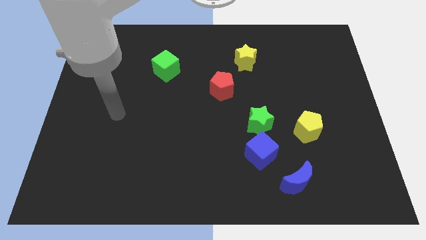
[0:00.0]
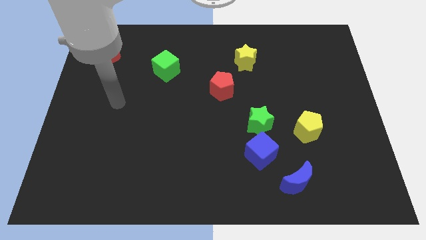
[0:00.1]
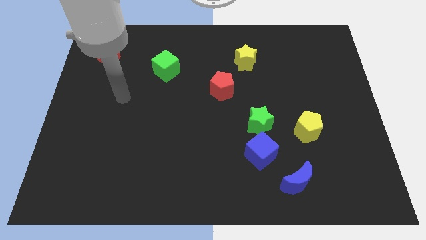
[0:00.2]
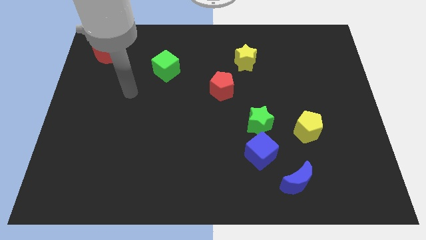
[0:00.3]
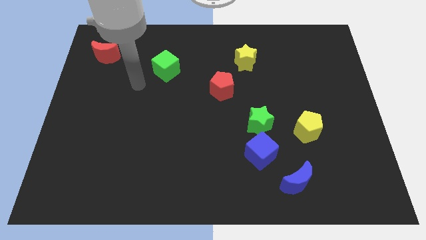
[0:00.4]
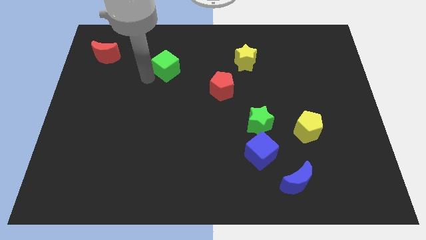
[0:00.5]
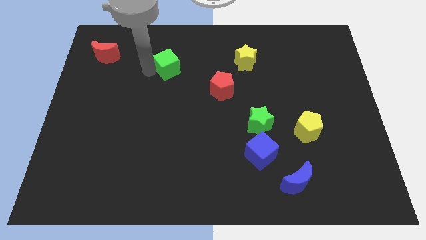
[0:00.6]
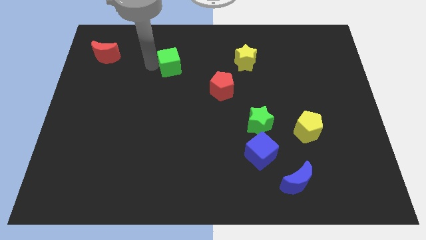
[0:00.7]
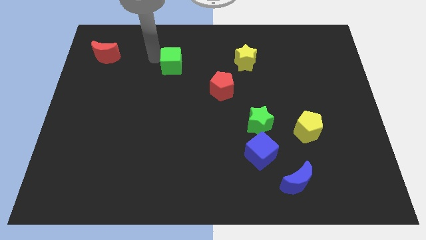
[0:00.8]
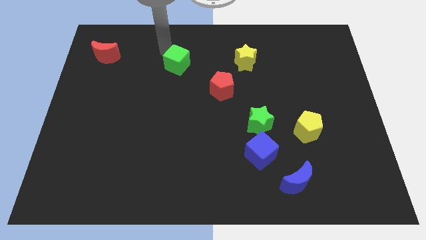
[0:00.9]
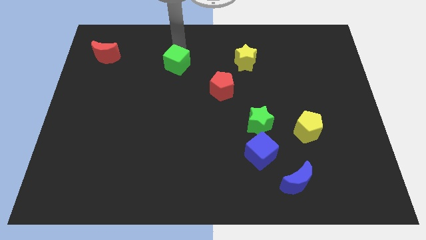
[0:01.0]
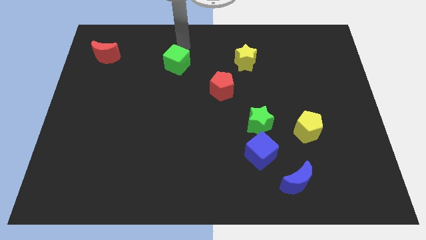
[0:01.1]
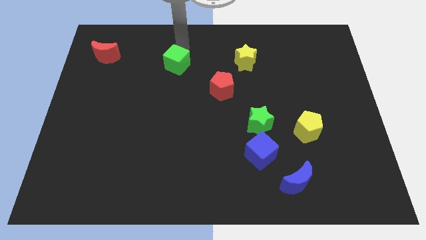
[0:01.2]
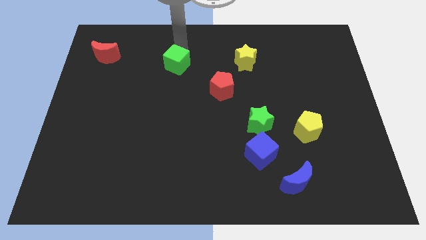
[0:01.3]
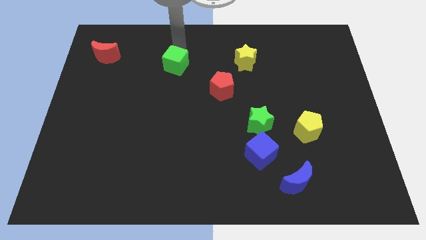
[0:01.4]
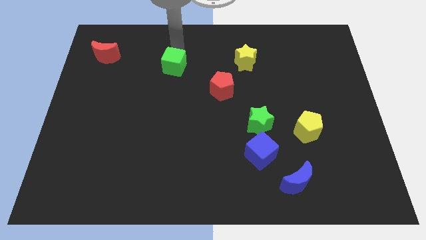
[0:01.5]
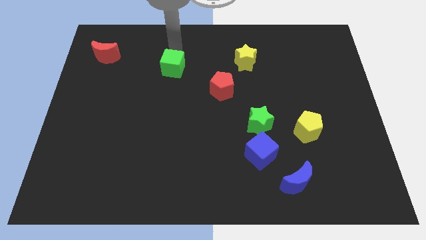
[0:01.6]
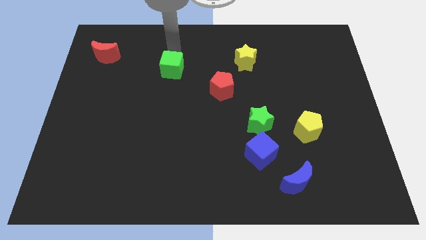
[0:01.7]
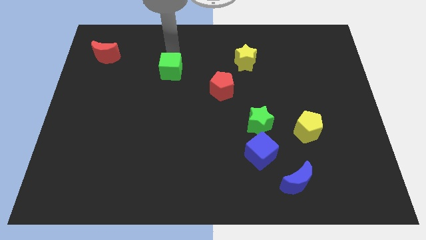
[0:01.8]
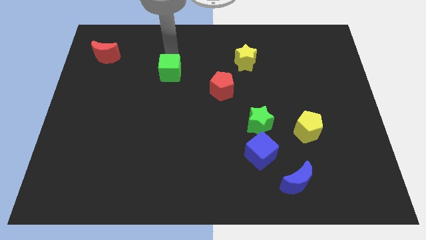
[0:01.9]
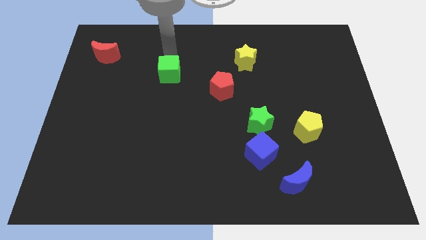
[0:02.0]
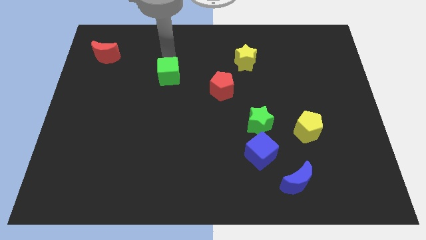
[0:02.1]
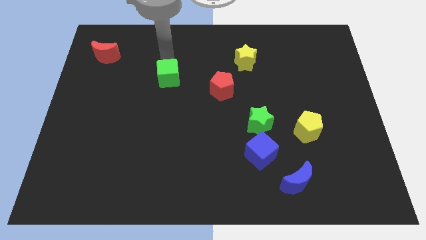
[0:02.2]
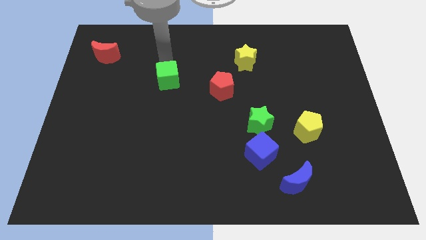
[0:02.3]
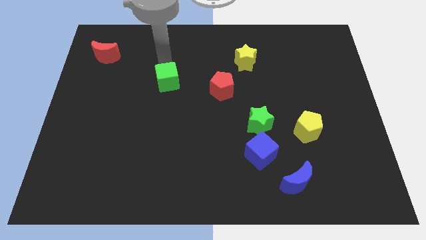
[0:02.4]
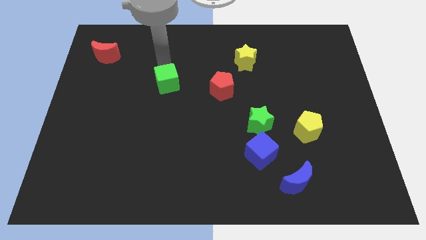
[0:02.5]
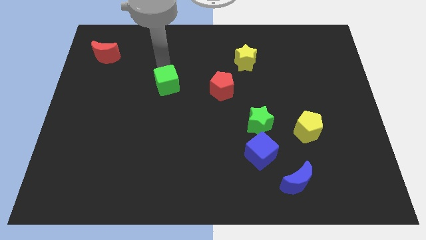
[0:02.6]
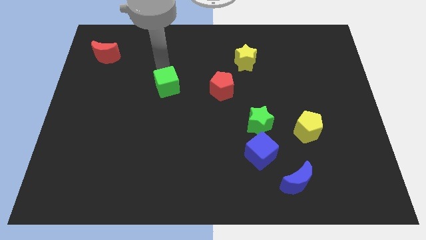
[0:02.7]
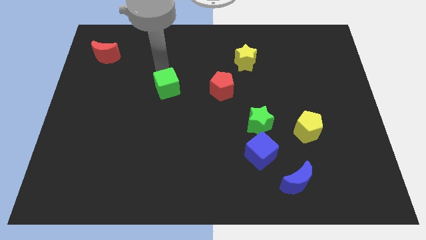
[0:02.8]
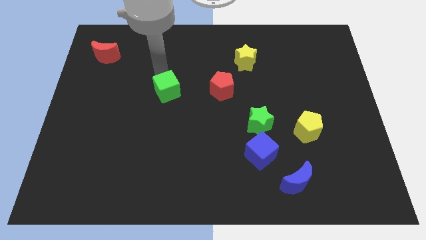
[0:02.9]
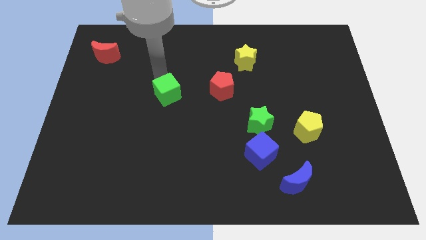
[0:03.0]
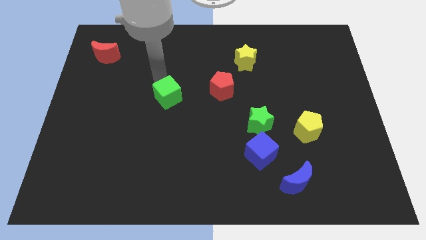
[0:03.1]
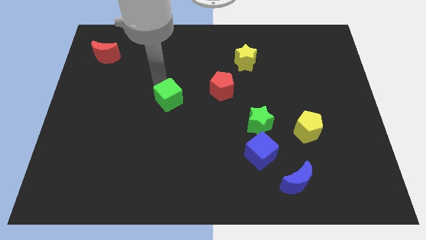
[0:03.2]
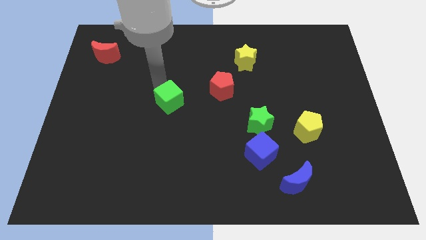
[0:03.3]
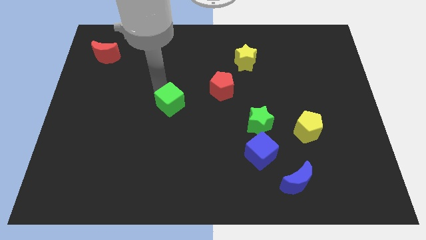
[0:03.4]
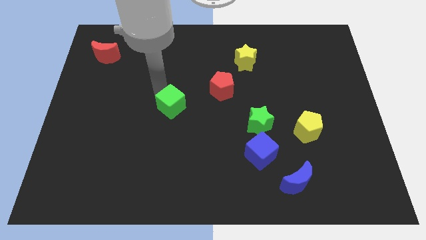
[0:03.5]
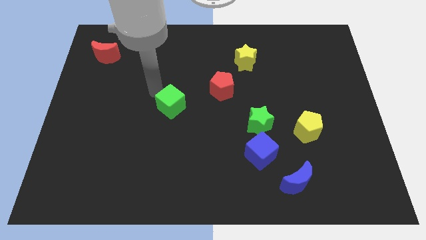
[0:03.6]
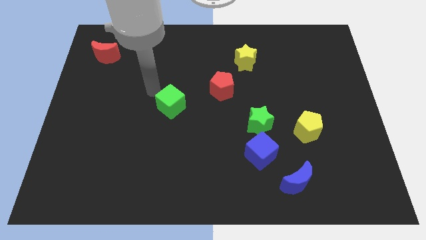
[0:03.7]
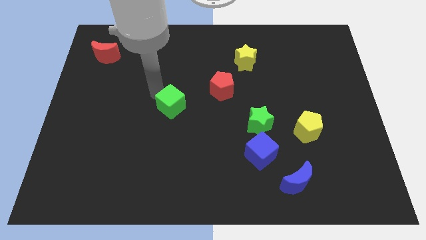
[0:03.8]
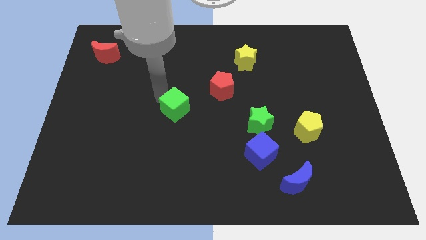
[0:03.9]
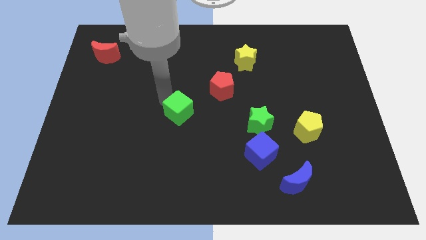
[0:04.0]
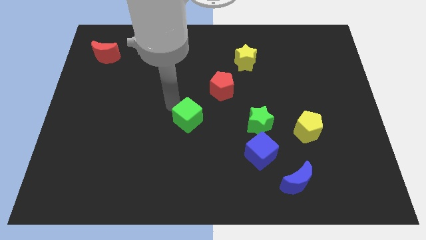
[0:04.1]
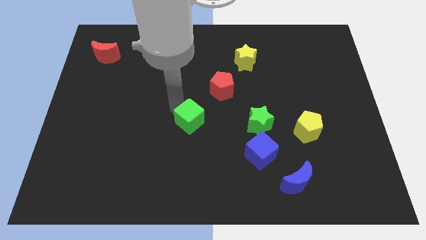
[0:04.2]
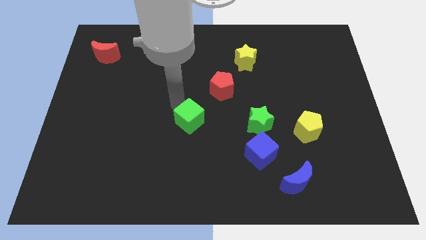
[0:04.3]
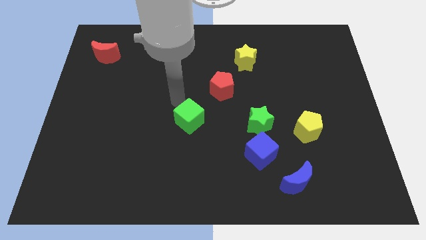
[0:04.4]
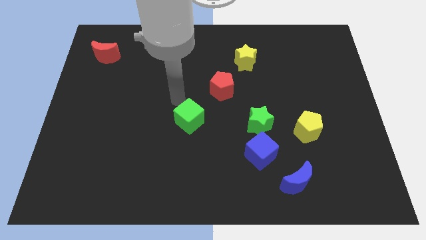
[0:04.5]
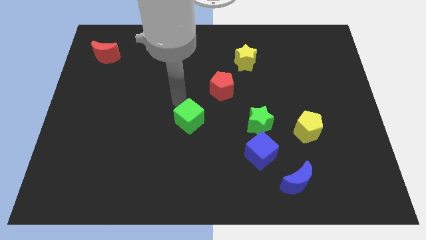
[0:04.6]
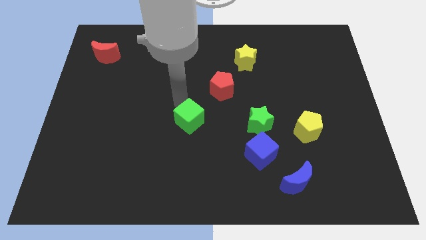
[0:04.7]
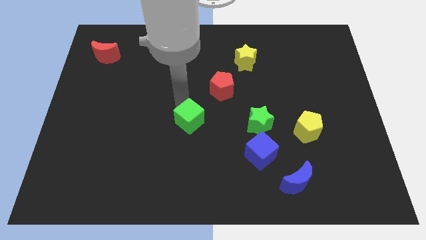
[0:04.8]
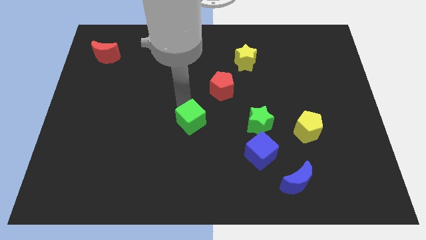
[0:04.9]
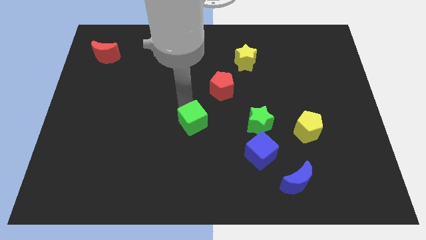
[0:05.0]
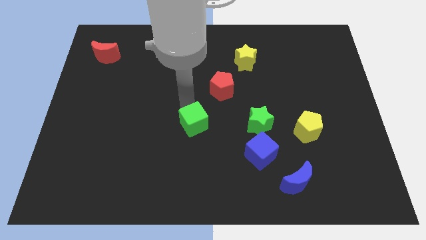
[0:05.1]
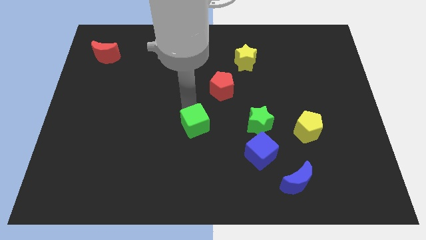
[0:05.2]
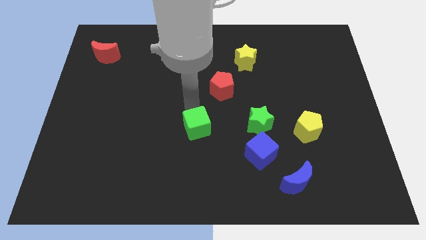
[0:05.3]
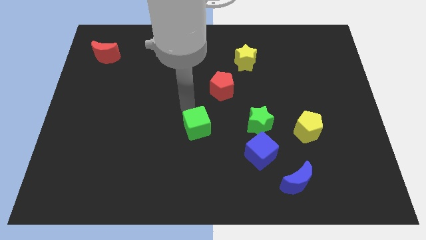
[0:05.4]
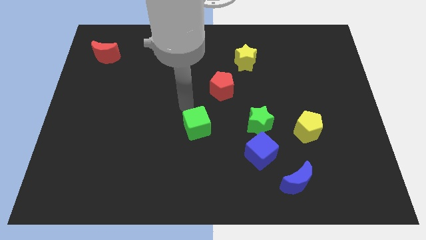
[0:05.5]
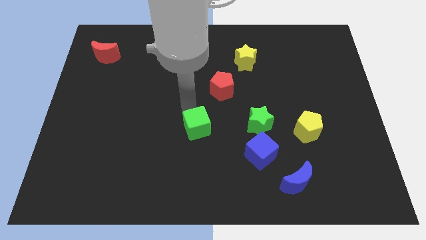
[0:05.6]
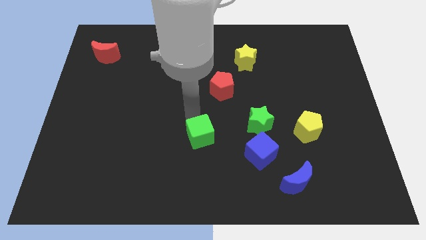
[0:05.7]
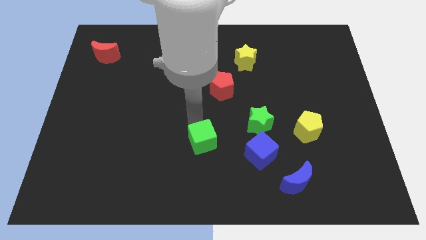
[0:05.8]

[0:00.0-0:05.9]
move the green cube left of the blue cube

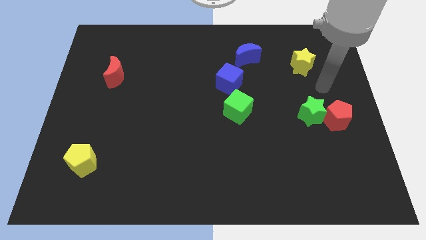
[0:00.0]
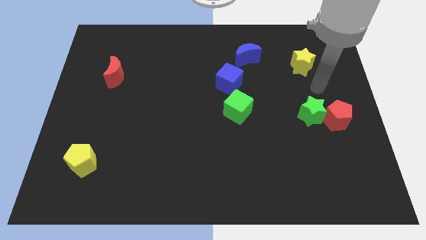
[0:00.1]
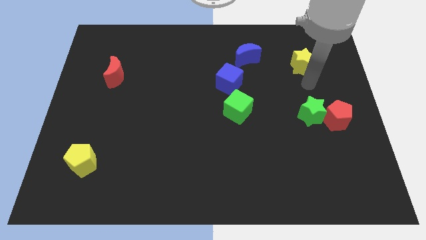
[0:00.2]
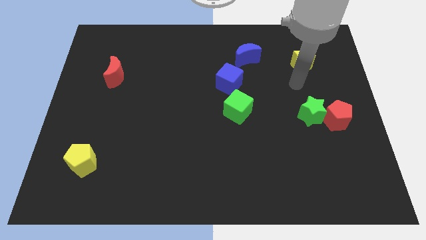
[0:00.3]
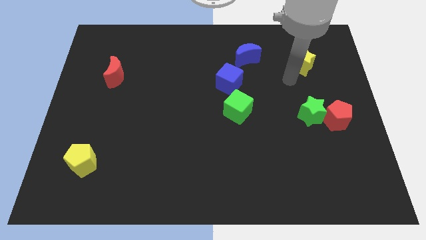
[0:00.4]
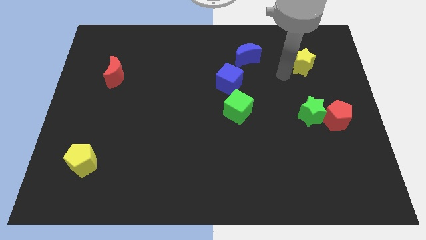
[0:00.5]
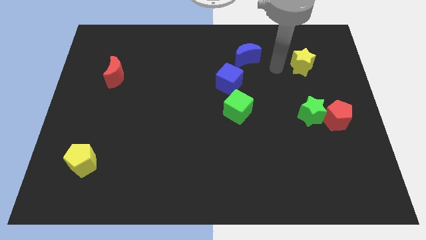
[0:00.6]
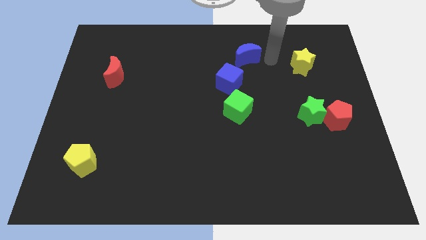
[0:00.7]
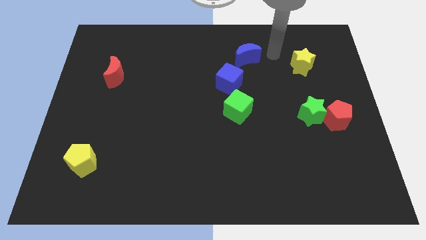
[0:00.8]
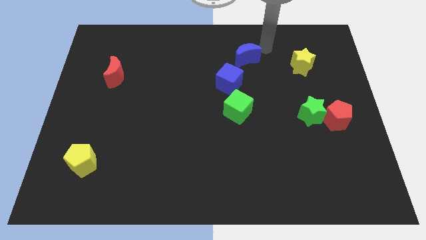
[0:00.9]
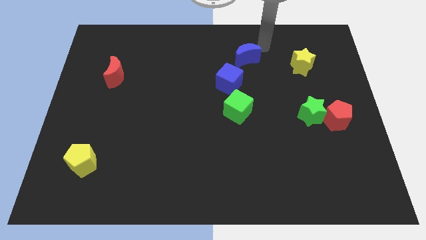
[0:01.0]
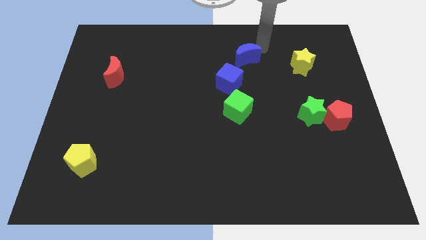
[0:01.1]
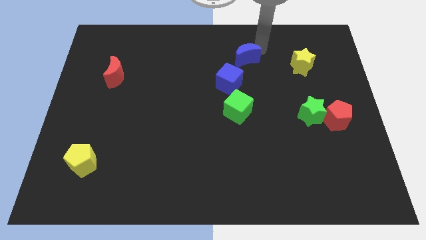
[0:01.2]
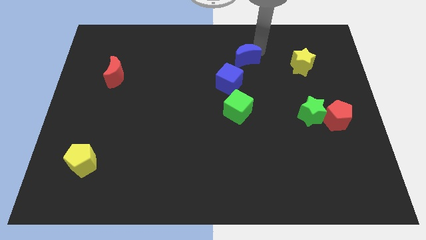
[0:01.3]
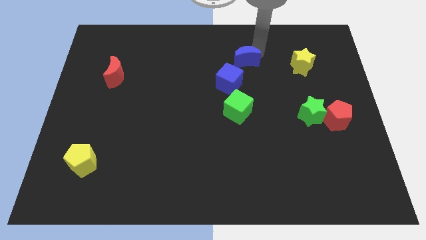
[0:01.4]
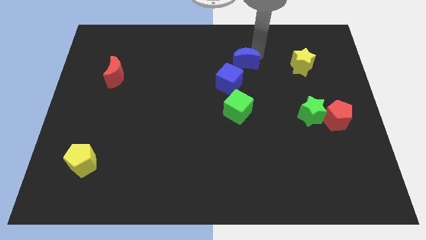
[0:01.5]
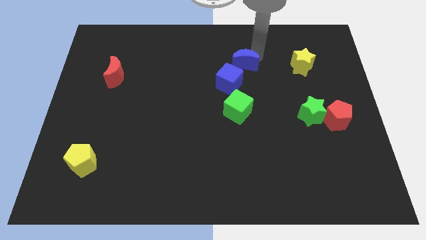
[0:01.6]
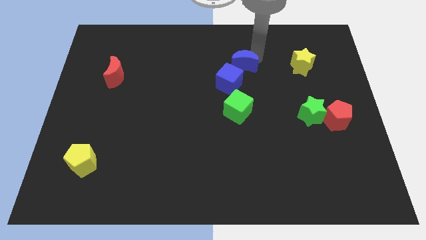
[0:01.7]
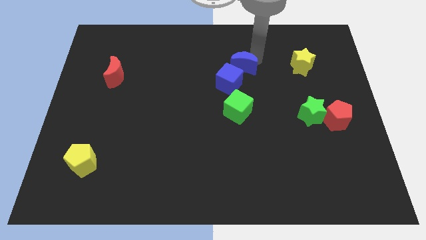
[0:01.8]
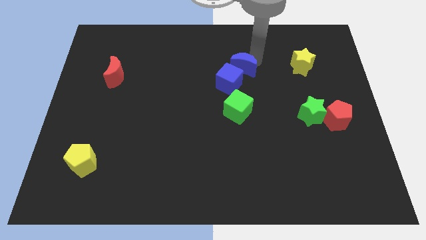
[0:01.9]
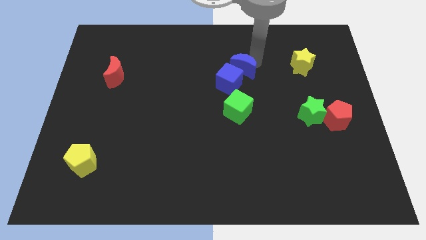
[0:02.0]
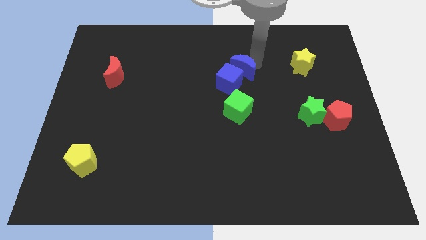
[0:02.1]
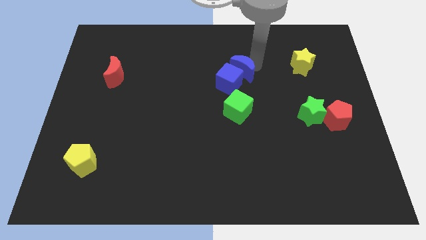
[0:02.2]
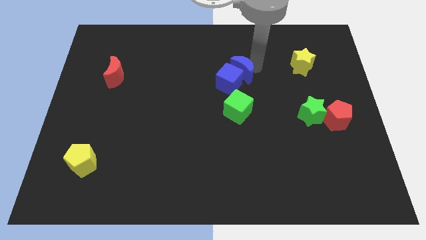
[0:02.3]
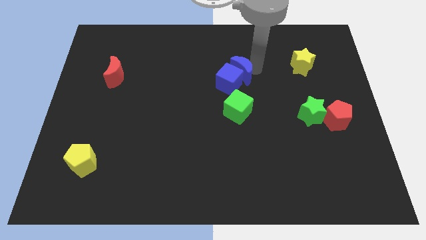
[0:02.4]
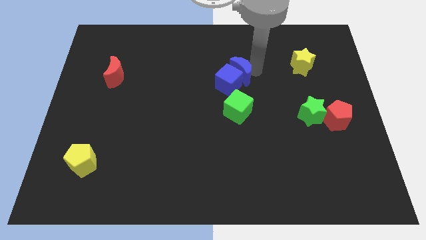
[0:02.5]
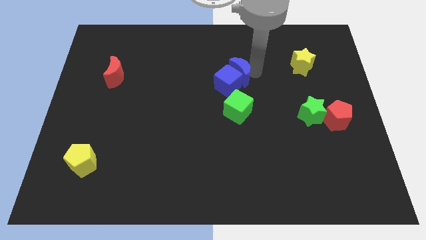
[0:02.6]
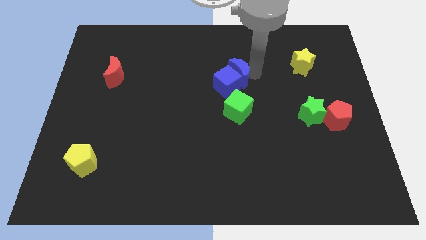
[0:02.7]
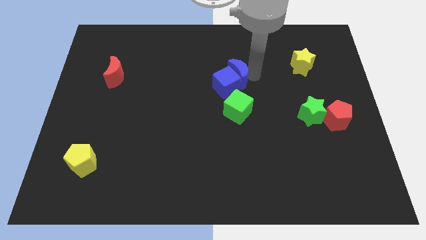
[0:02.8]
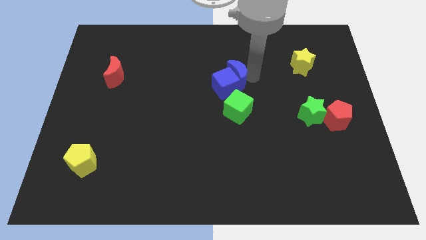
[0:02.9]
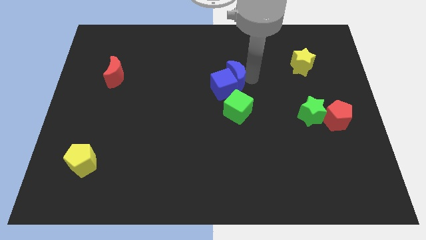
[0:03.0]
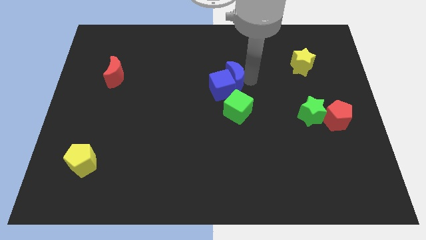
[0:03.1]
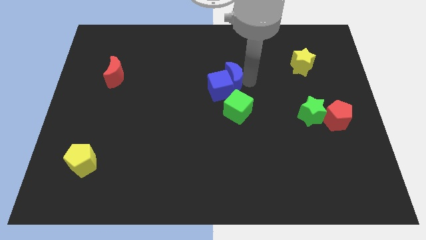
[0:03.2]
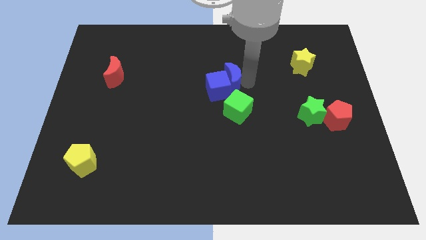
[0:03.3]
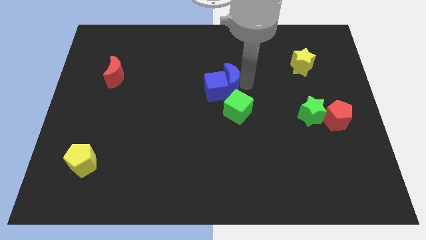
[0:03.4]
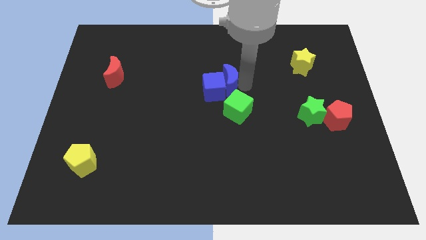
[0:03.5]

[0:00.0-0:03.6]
slide the blue moon to the top left side of the green cube
